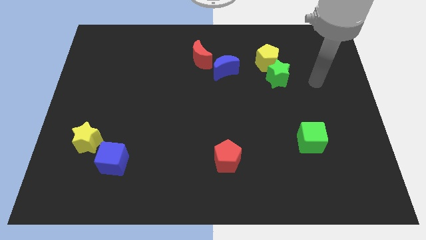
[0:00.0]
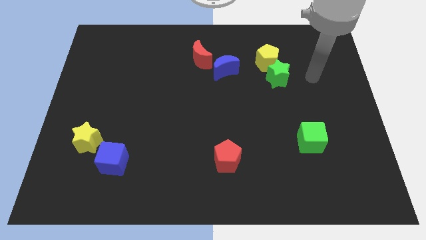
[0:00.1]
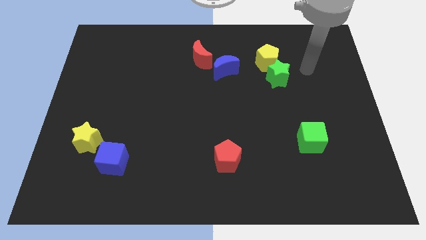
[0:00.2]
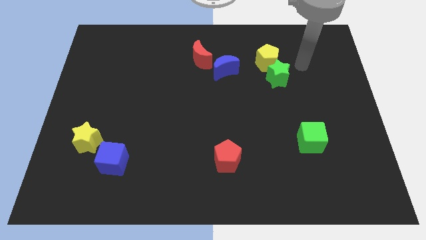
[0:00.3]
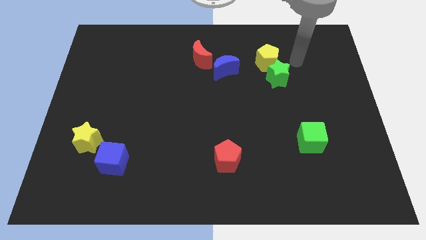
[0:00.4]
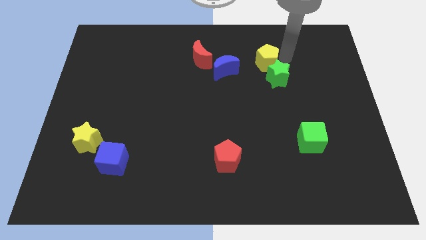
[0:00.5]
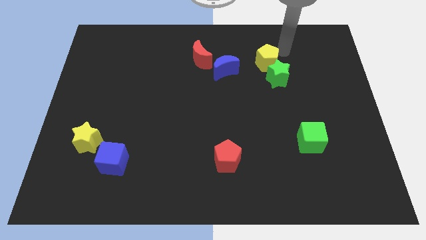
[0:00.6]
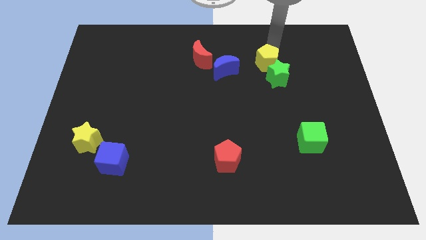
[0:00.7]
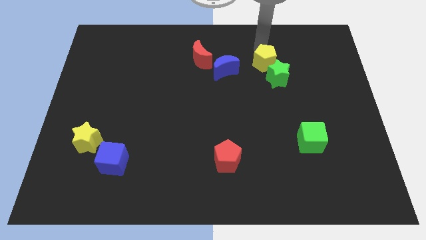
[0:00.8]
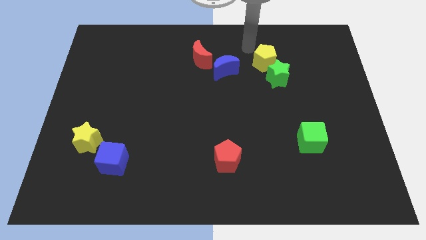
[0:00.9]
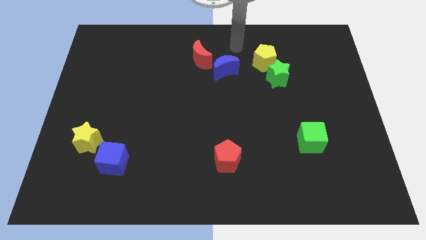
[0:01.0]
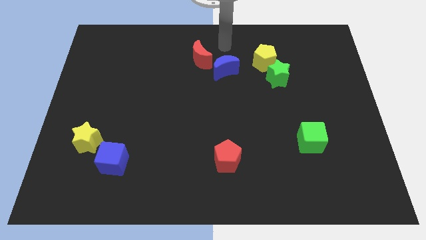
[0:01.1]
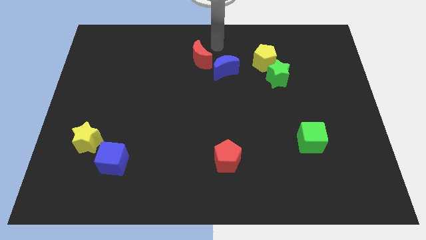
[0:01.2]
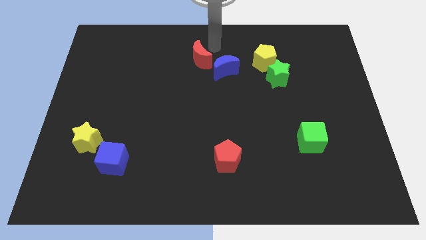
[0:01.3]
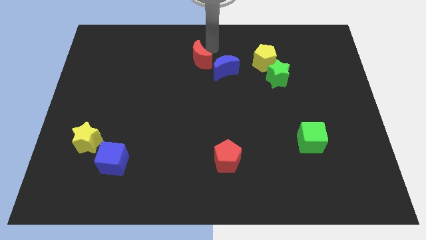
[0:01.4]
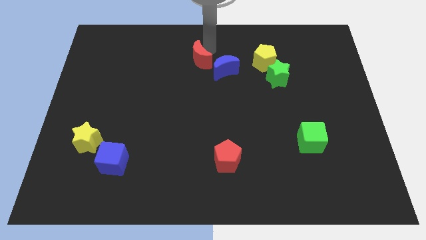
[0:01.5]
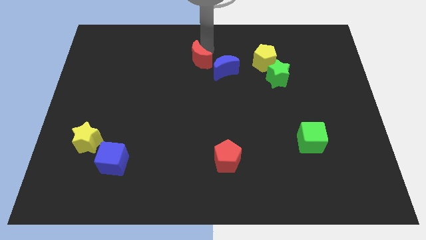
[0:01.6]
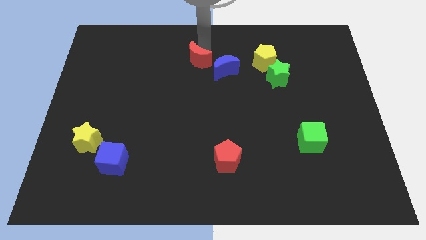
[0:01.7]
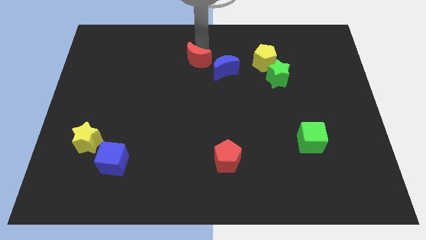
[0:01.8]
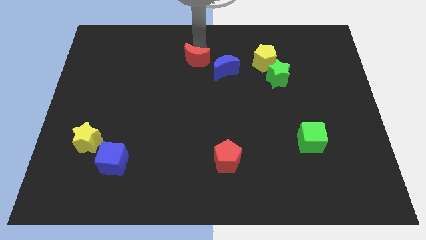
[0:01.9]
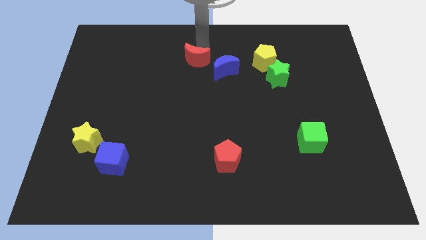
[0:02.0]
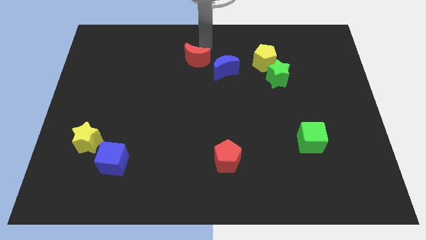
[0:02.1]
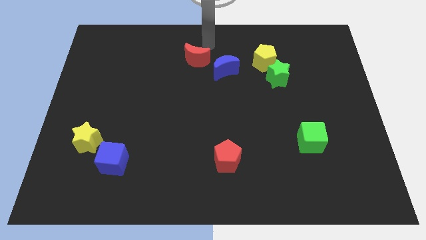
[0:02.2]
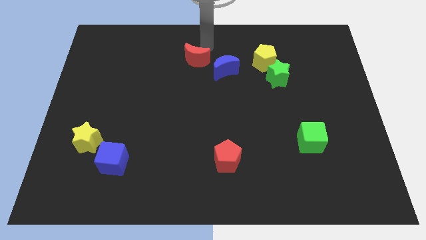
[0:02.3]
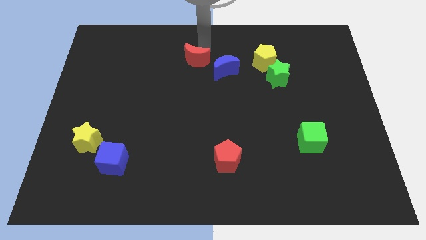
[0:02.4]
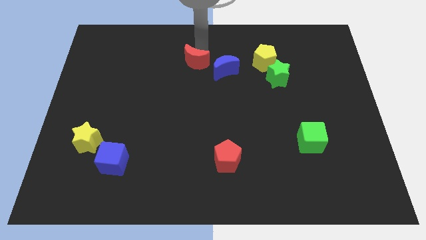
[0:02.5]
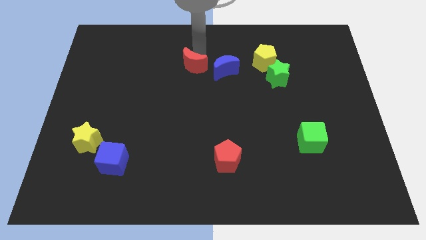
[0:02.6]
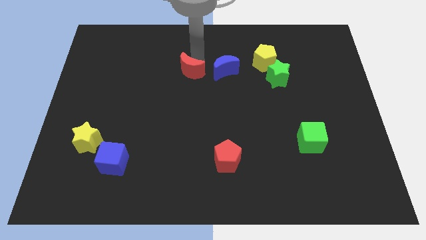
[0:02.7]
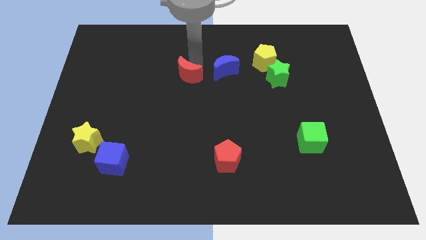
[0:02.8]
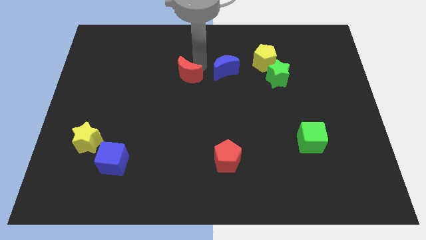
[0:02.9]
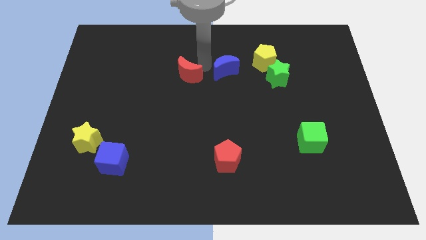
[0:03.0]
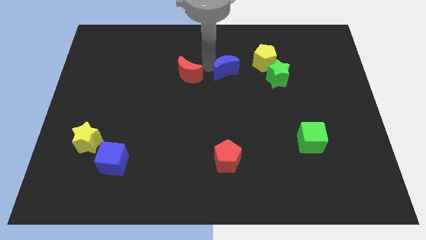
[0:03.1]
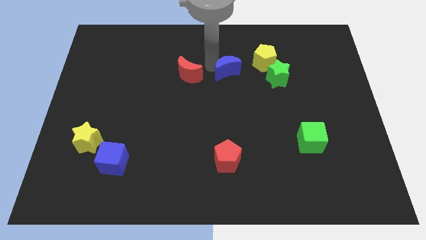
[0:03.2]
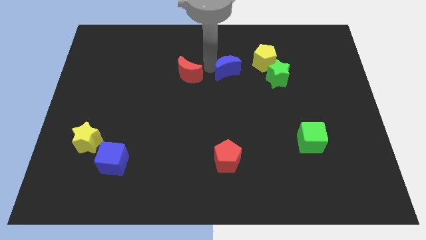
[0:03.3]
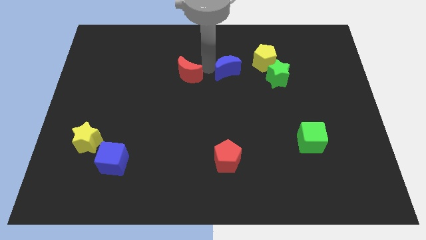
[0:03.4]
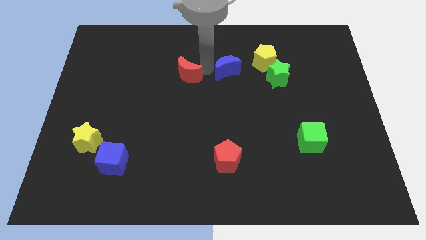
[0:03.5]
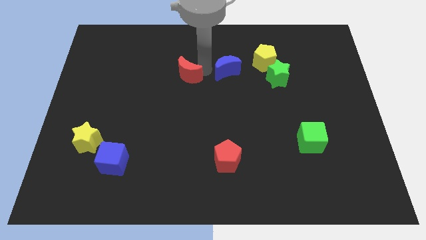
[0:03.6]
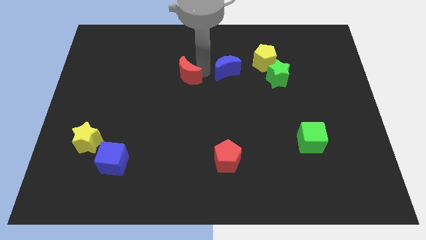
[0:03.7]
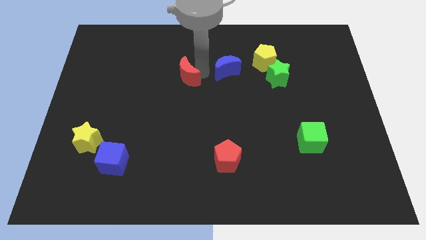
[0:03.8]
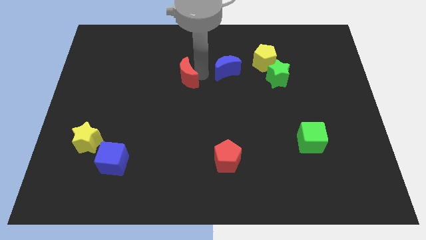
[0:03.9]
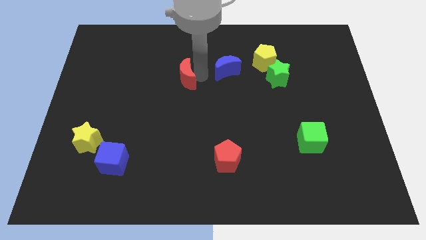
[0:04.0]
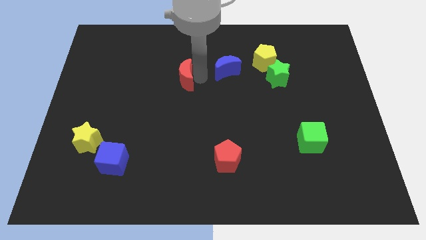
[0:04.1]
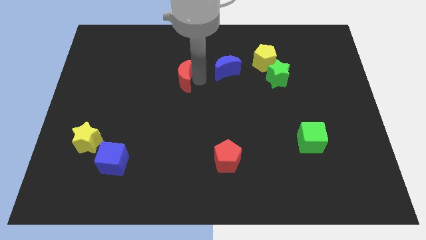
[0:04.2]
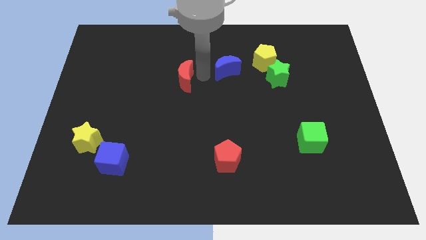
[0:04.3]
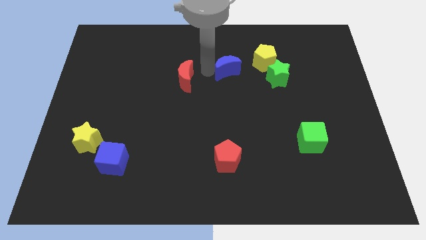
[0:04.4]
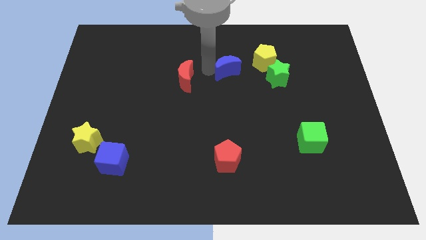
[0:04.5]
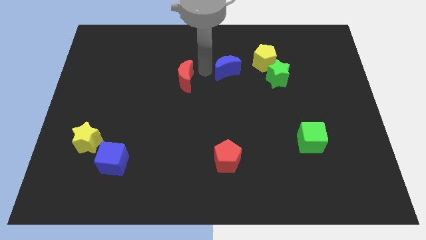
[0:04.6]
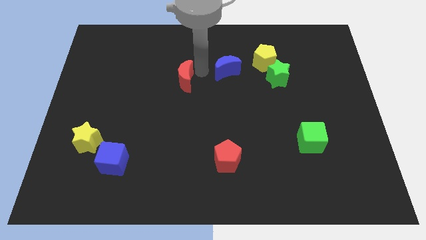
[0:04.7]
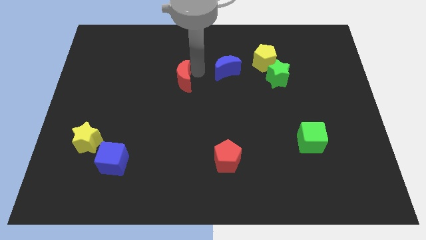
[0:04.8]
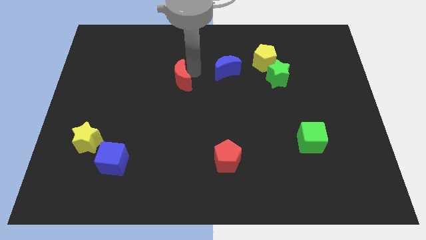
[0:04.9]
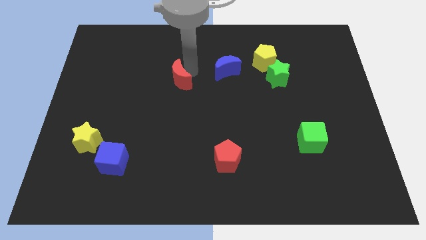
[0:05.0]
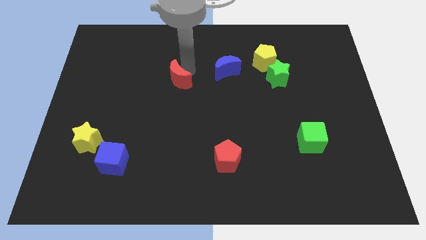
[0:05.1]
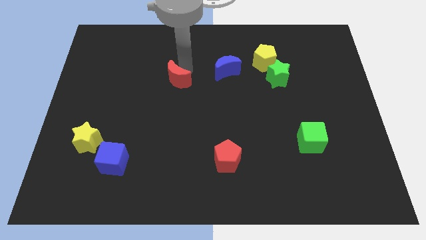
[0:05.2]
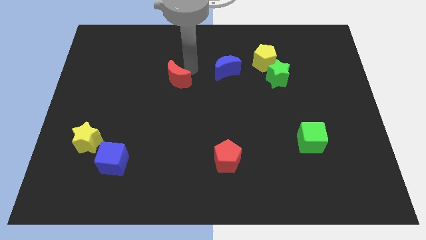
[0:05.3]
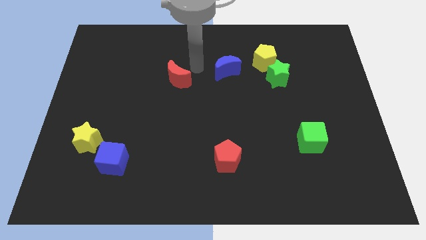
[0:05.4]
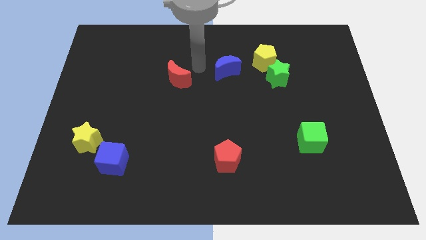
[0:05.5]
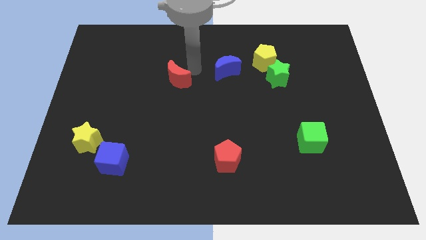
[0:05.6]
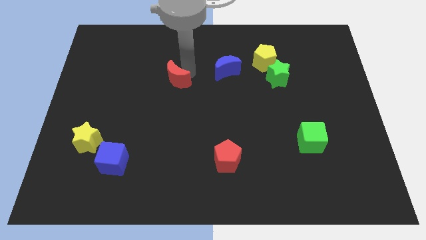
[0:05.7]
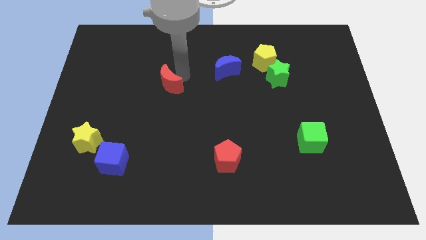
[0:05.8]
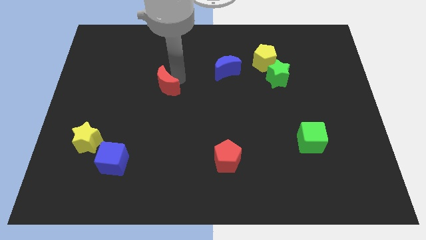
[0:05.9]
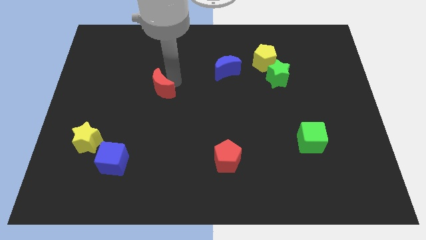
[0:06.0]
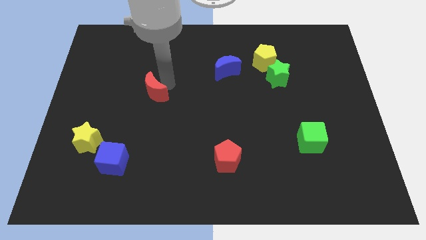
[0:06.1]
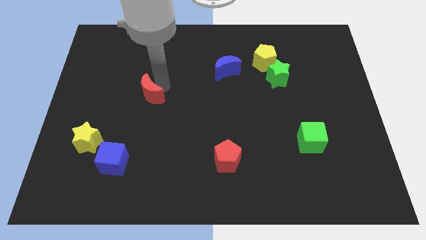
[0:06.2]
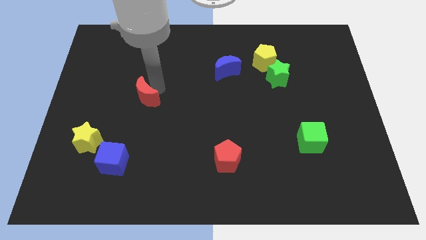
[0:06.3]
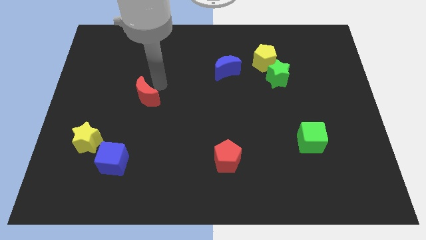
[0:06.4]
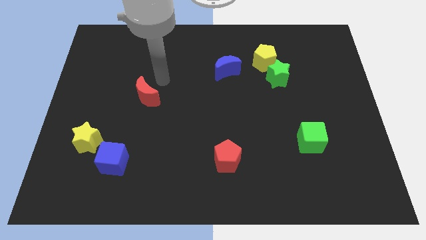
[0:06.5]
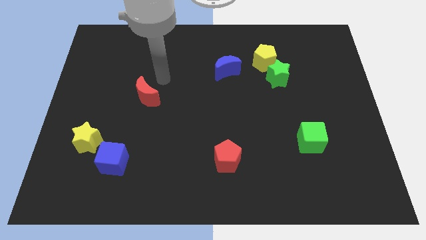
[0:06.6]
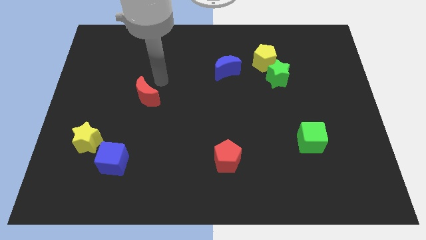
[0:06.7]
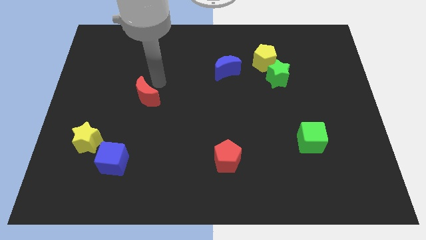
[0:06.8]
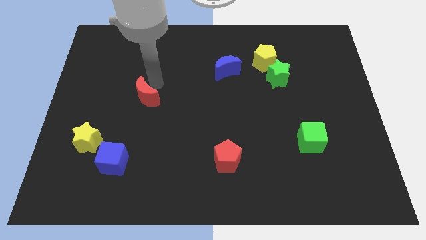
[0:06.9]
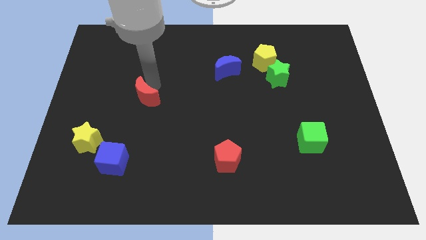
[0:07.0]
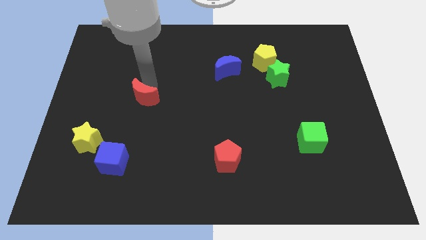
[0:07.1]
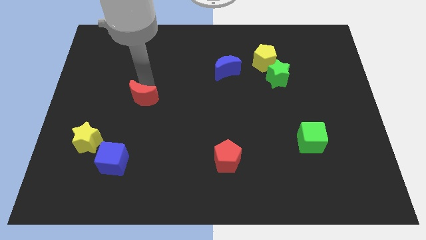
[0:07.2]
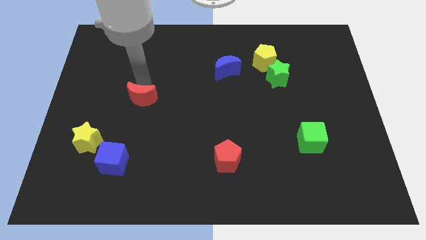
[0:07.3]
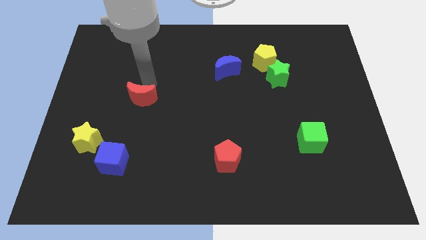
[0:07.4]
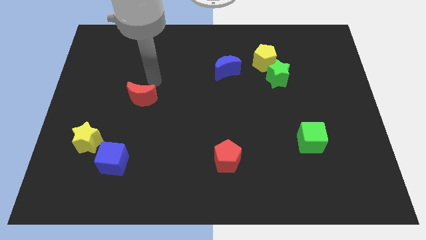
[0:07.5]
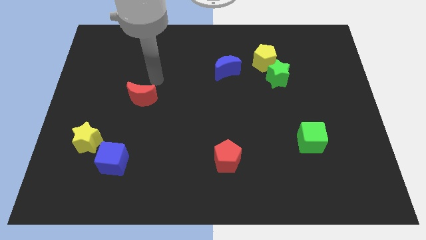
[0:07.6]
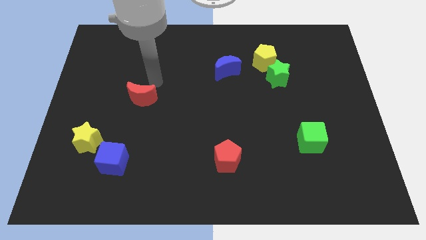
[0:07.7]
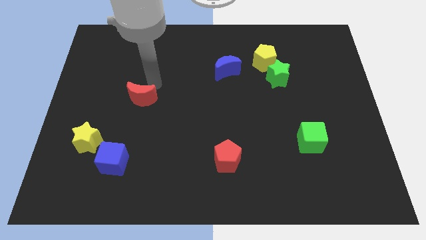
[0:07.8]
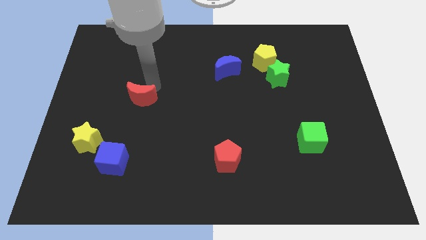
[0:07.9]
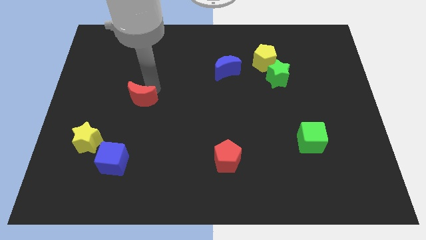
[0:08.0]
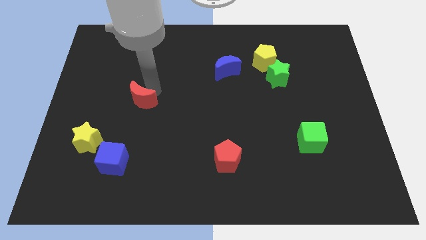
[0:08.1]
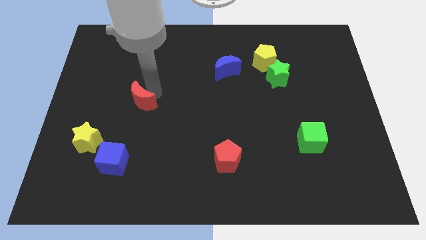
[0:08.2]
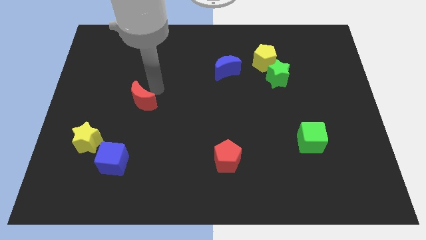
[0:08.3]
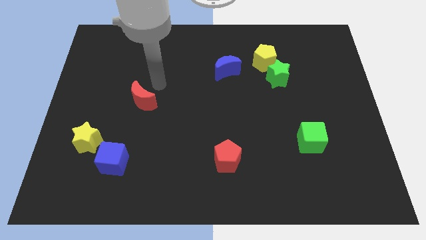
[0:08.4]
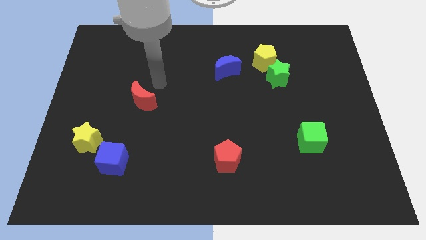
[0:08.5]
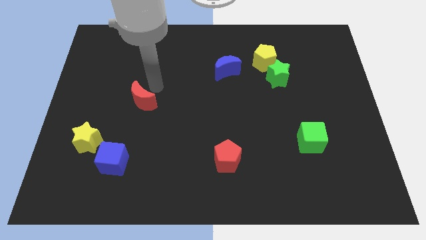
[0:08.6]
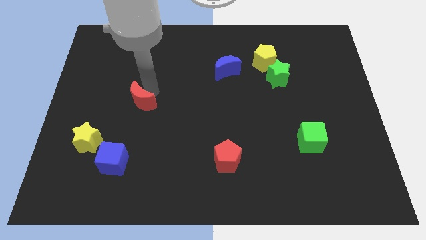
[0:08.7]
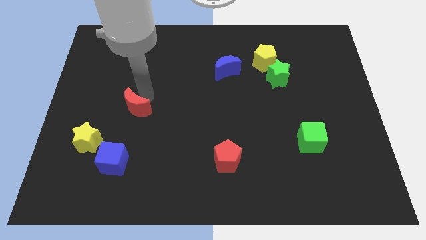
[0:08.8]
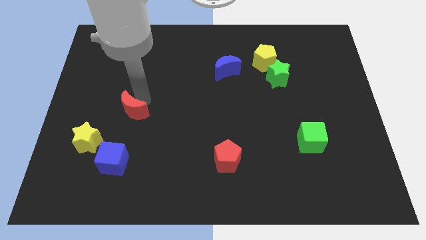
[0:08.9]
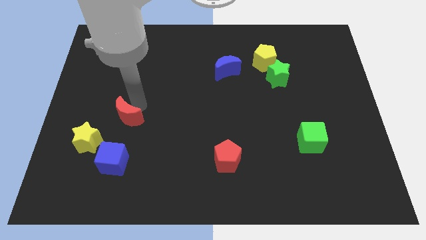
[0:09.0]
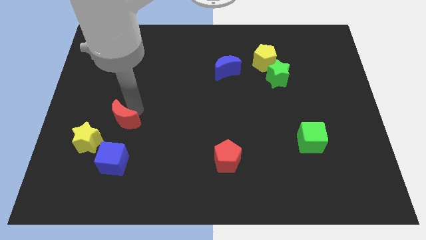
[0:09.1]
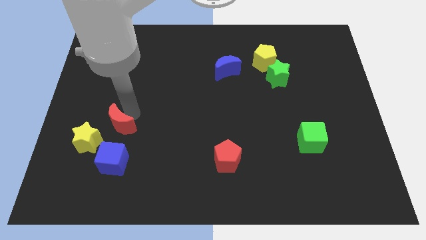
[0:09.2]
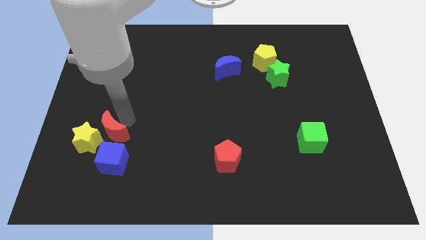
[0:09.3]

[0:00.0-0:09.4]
move the red moon next to the yellow star
